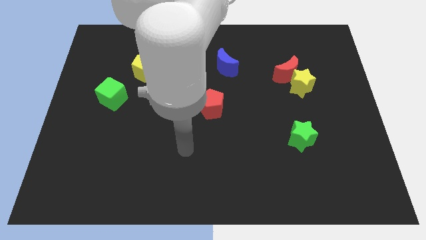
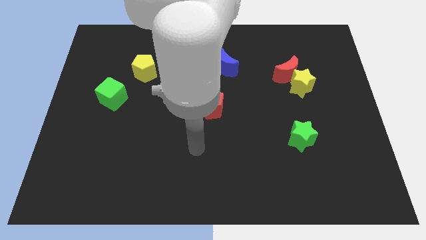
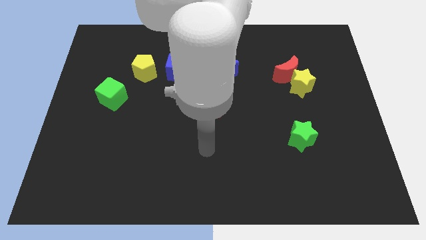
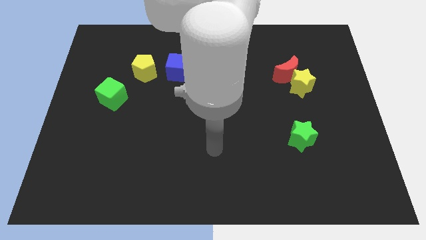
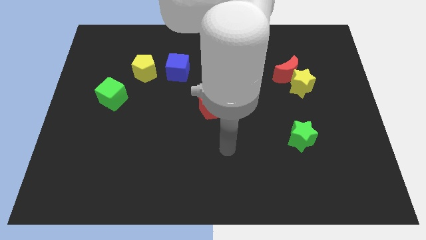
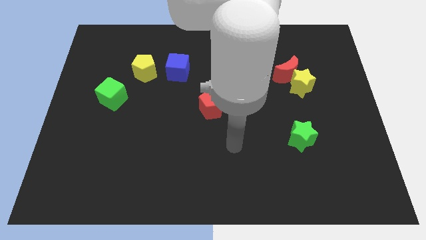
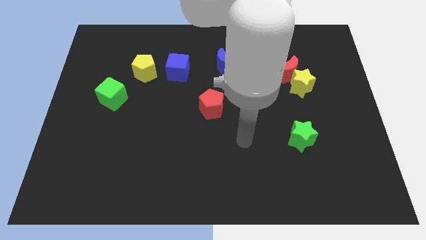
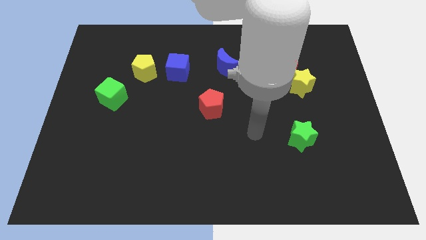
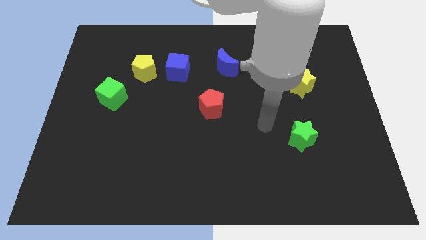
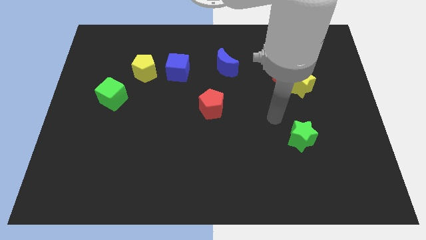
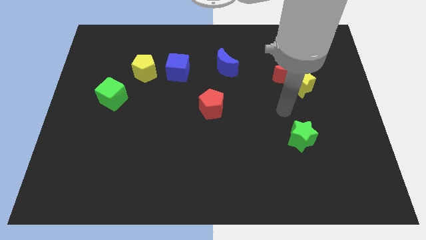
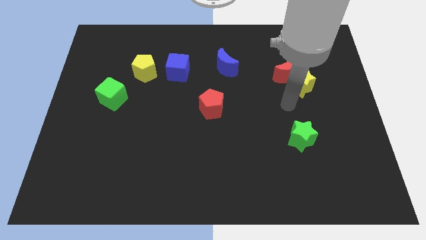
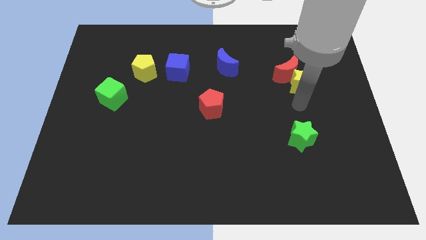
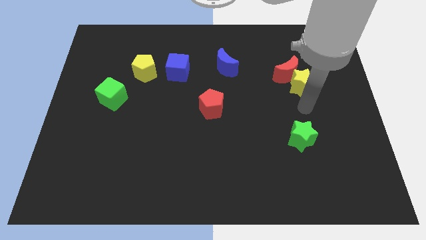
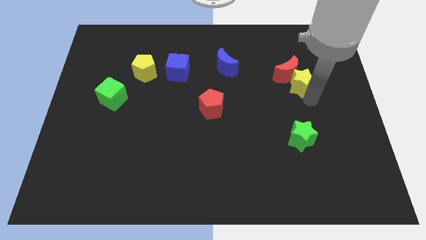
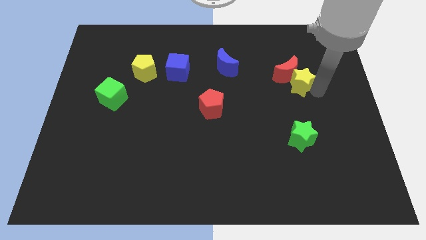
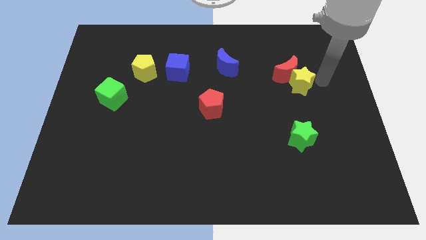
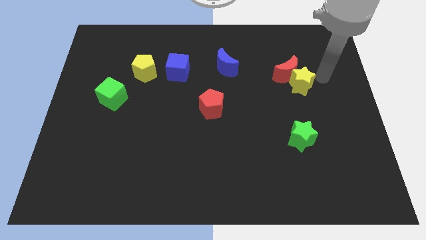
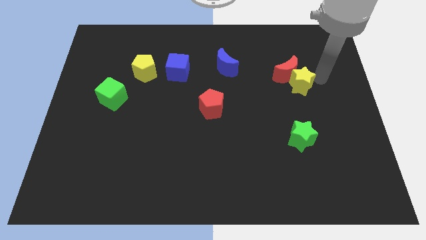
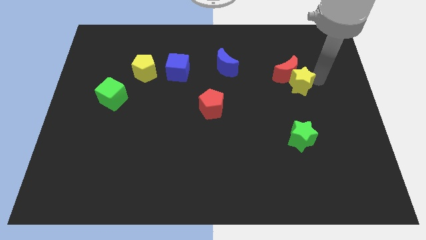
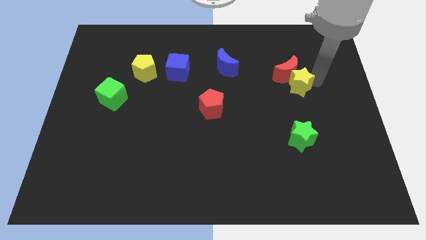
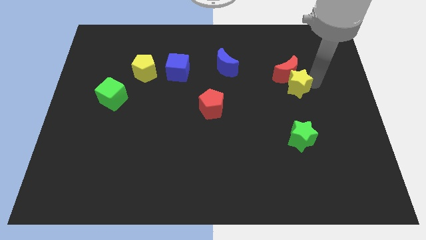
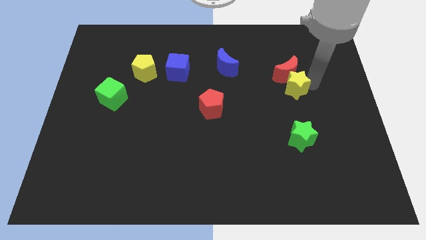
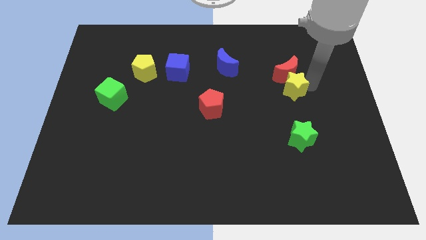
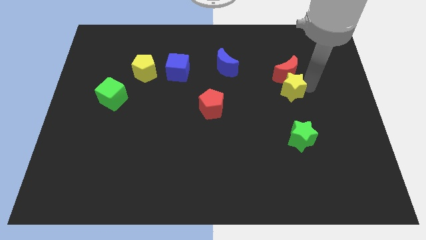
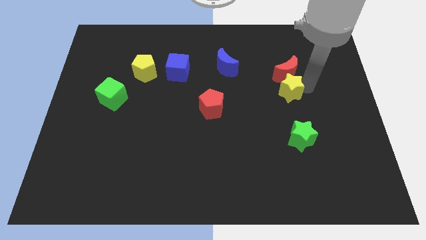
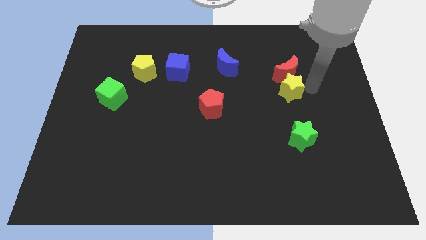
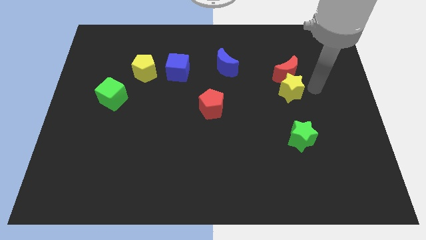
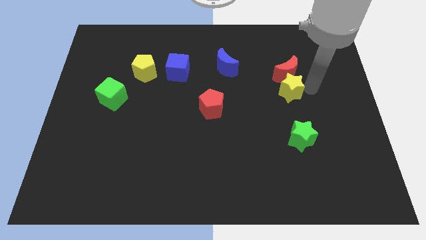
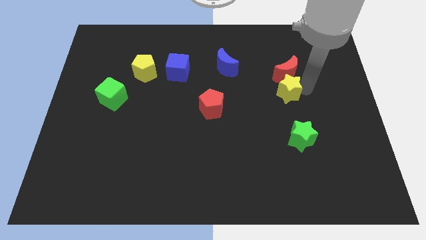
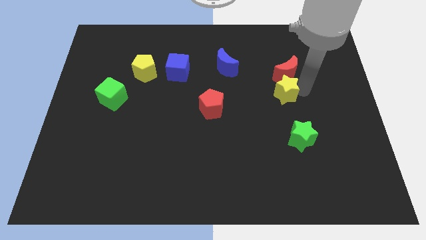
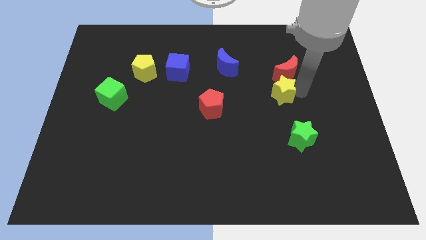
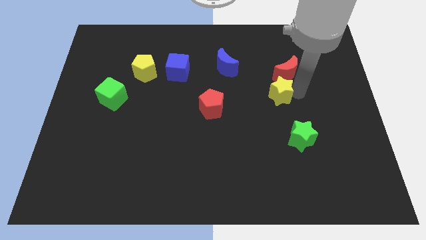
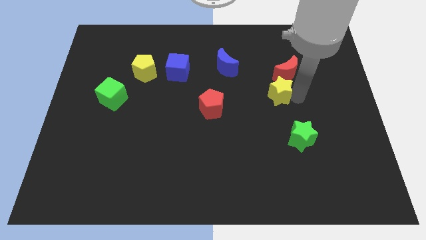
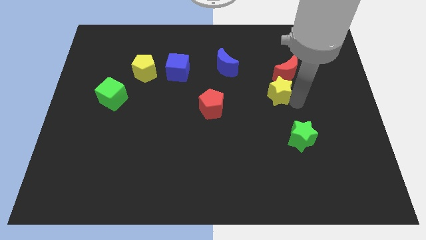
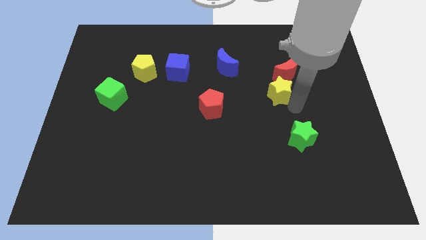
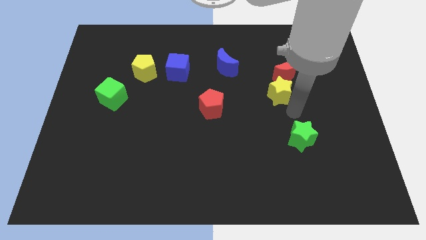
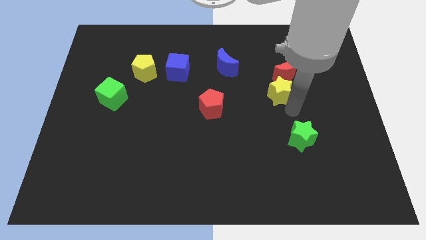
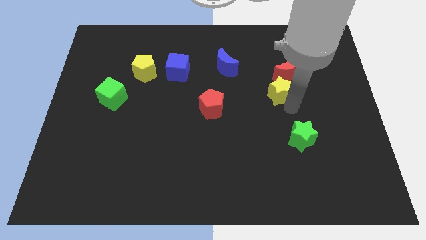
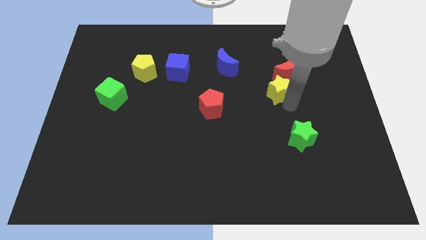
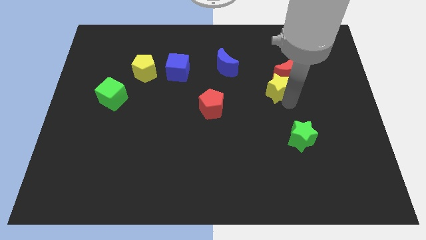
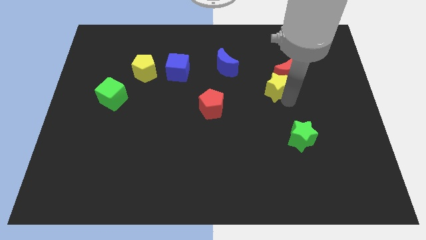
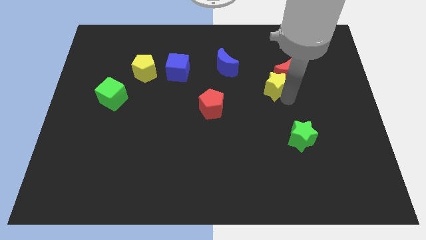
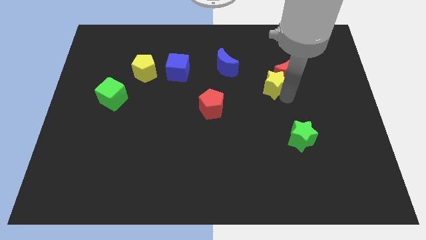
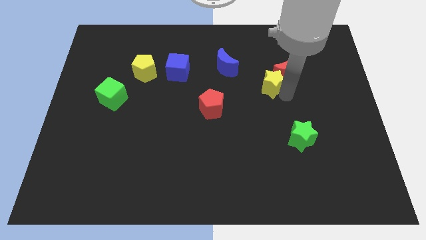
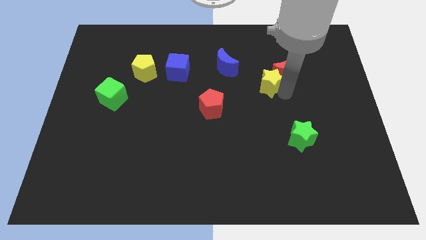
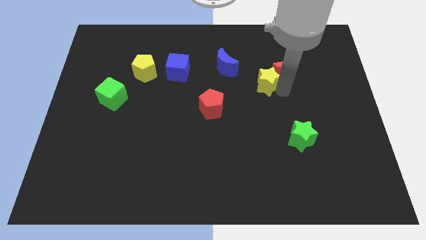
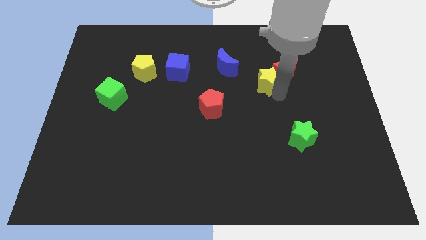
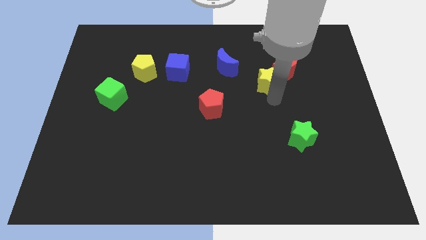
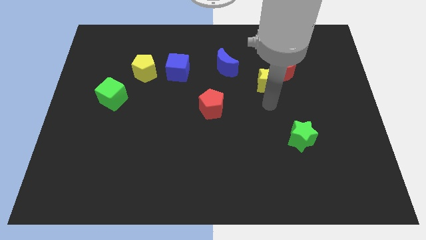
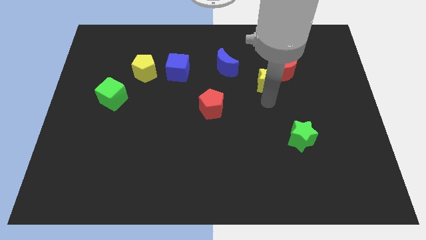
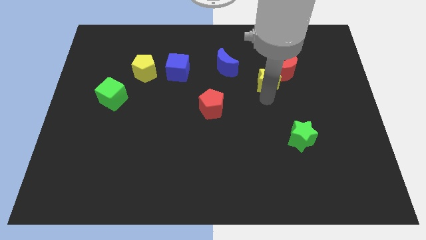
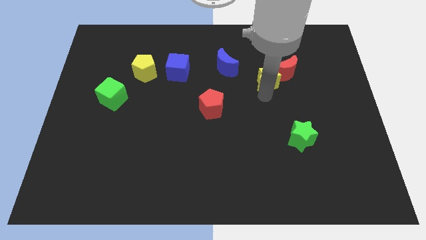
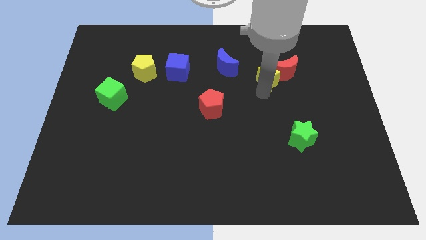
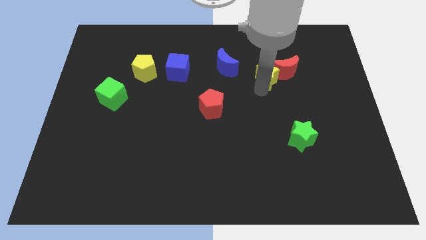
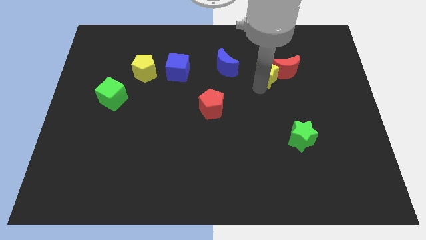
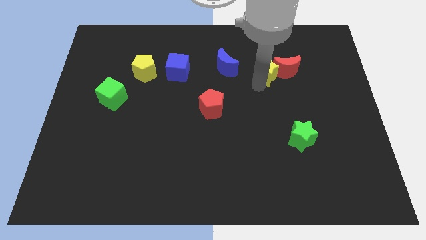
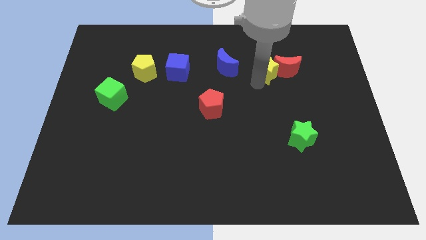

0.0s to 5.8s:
slide the yellow star to the top left side of the red moon

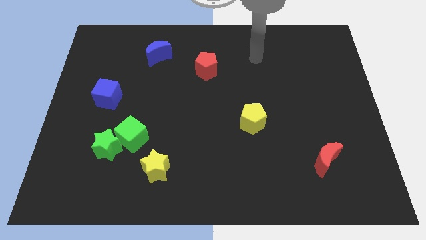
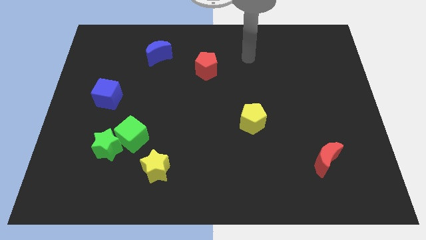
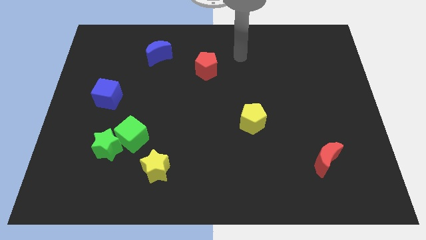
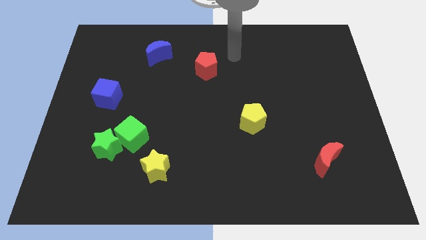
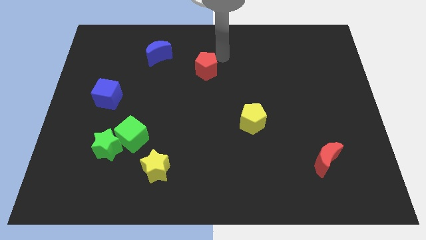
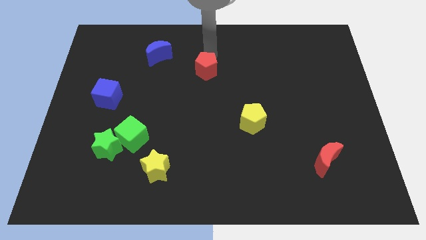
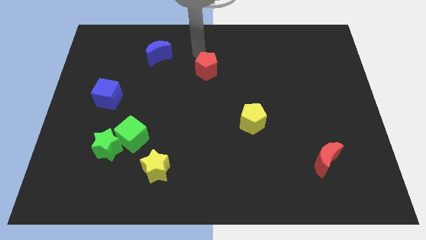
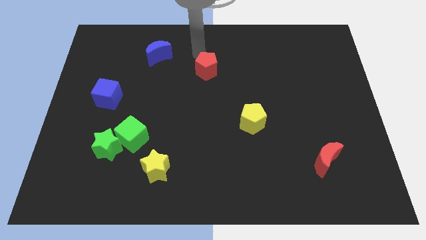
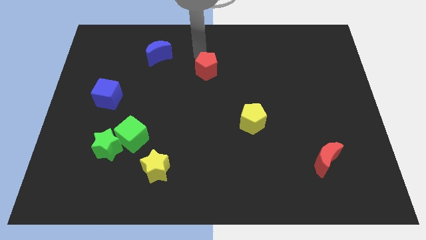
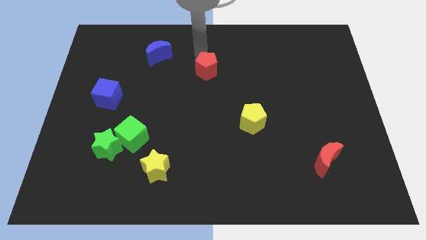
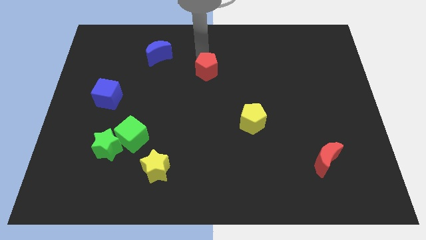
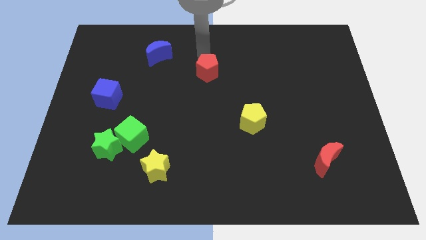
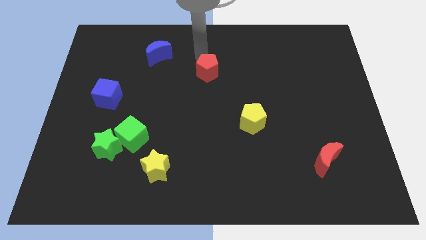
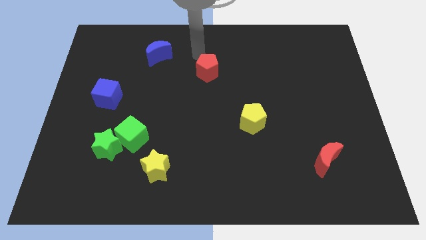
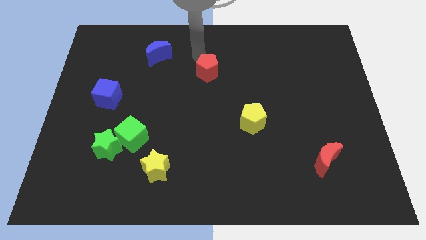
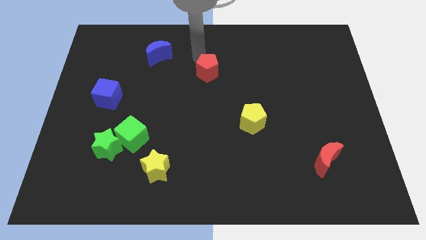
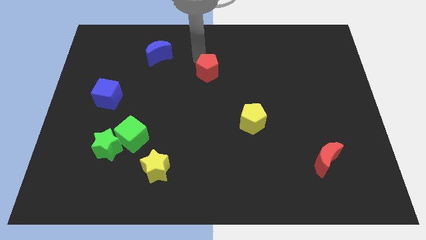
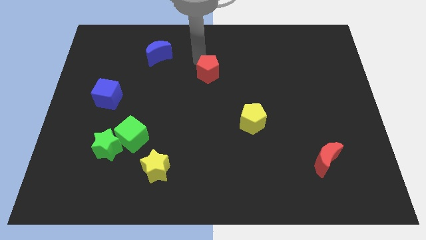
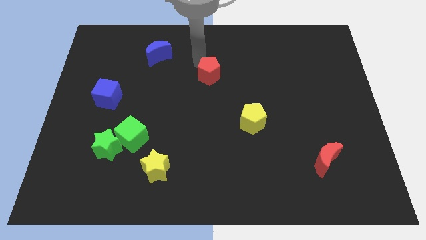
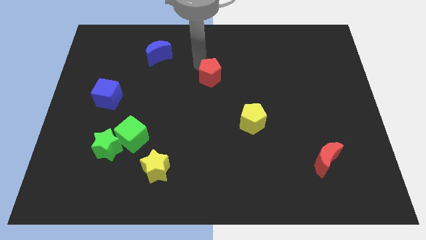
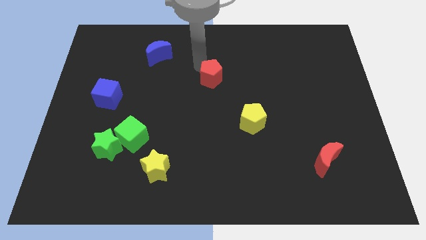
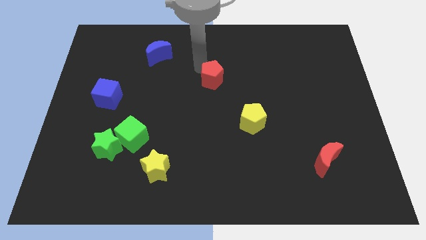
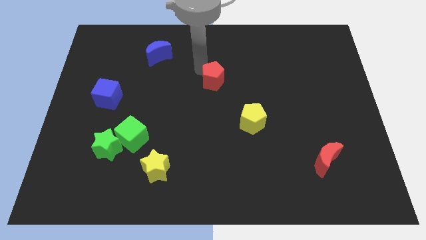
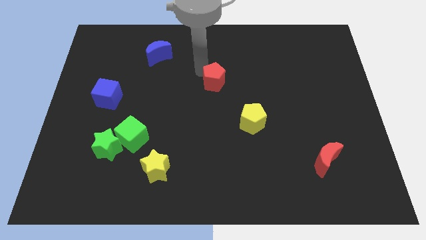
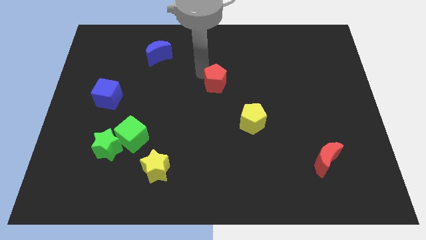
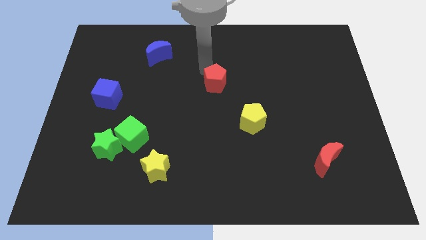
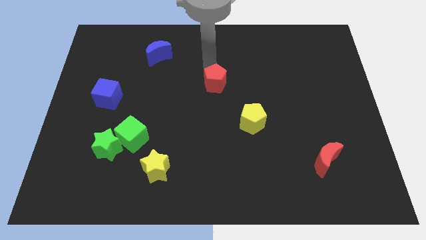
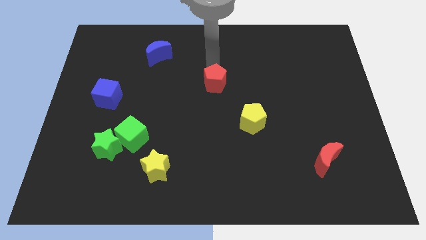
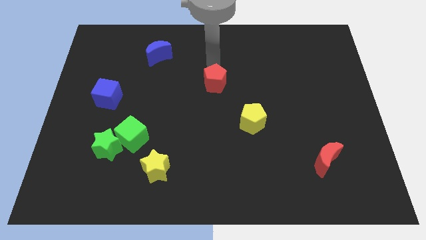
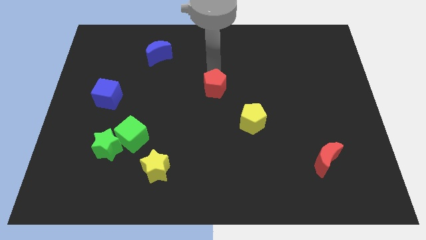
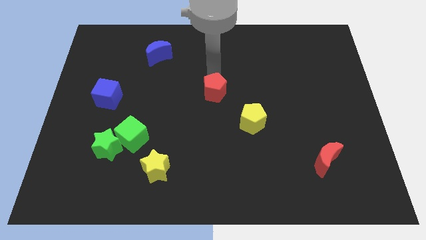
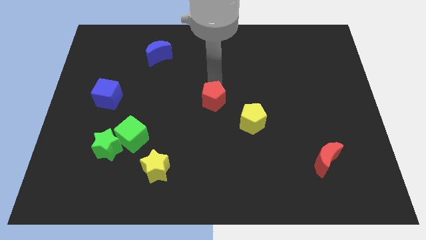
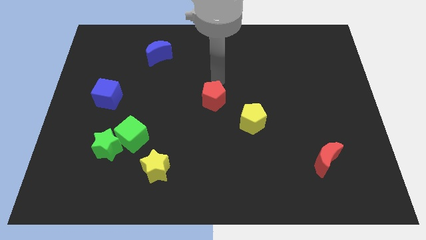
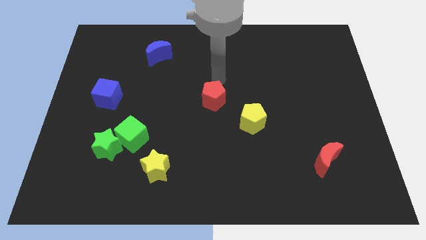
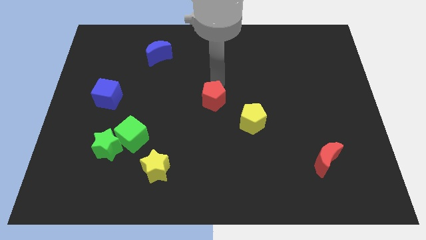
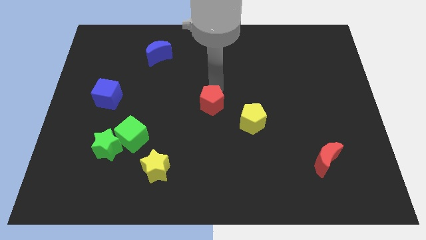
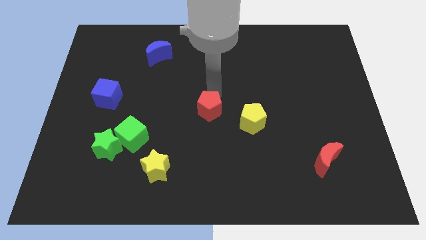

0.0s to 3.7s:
slide the red pentagon to the left of the yellow pentagon
